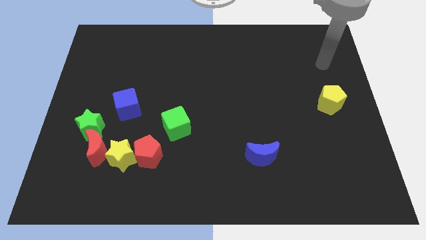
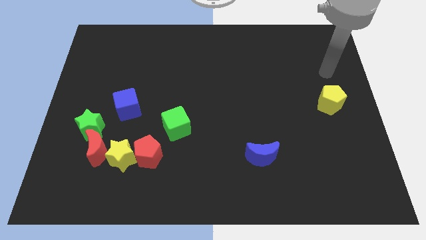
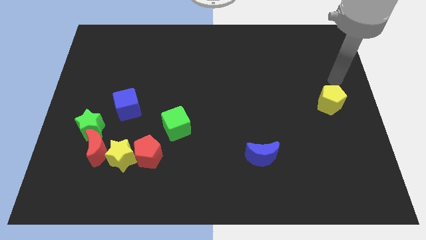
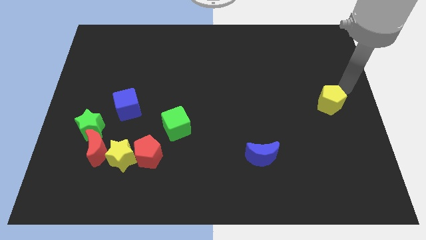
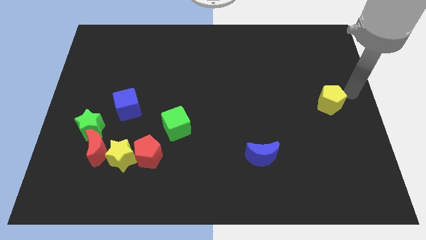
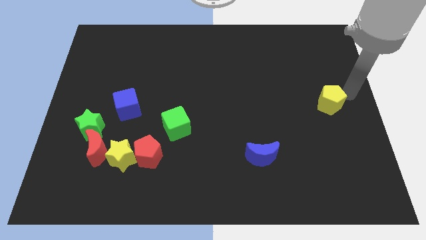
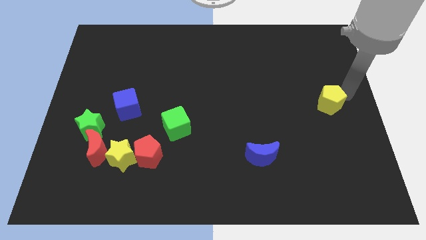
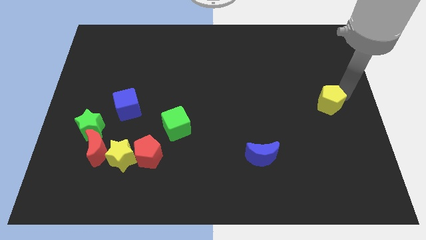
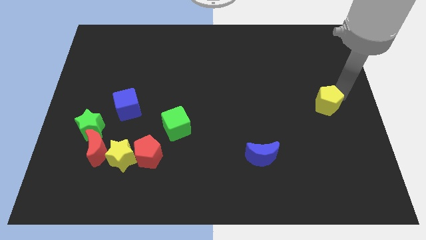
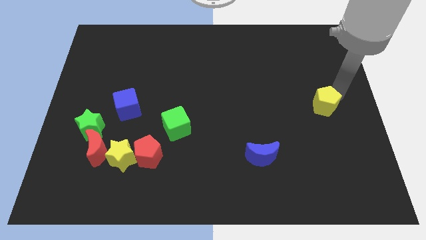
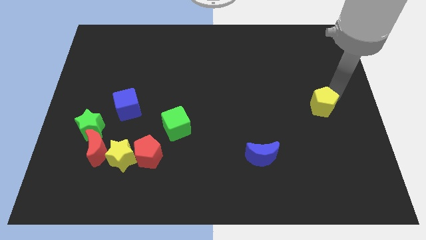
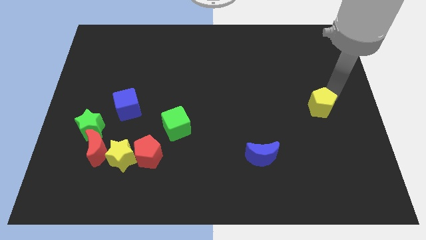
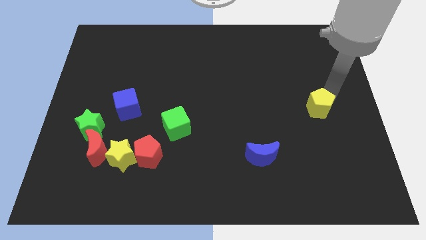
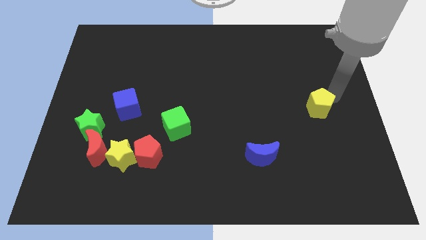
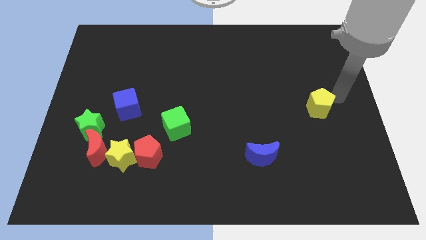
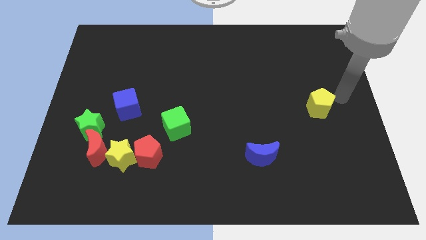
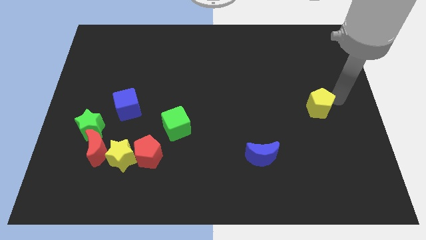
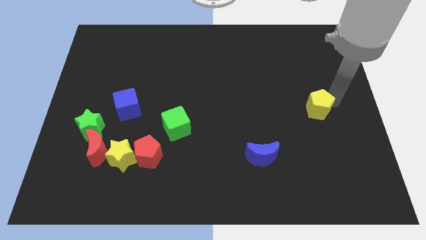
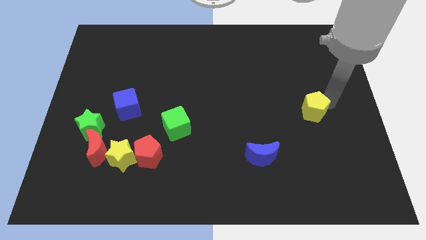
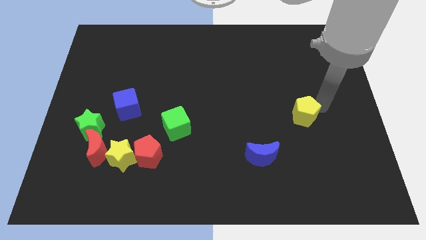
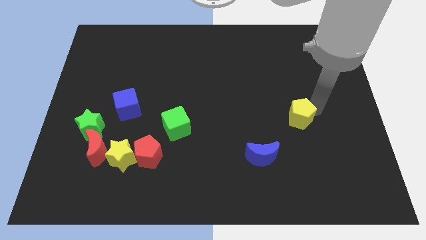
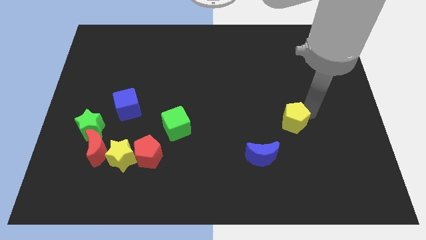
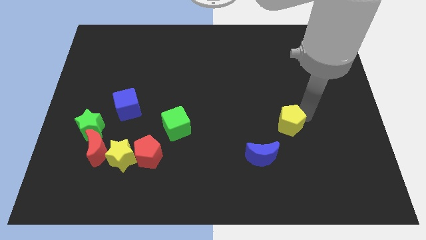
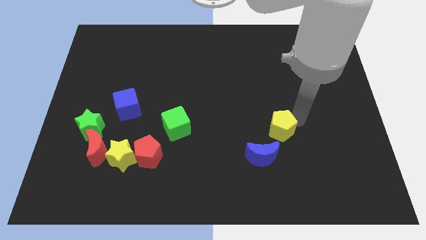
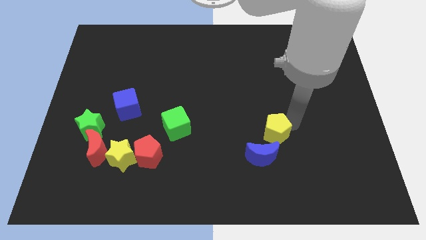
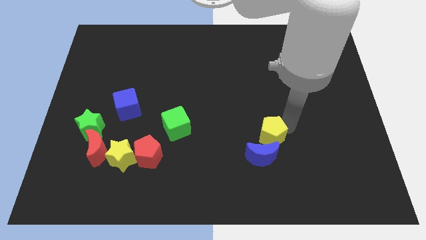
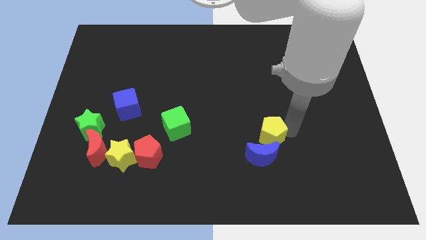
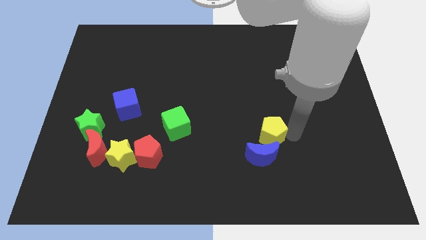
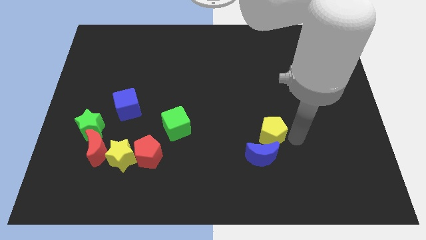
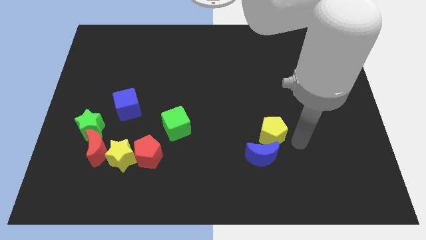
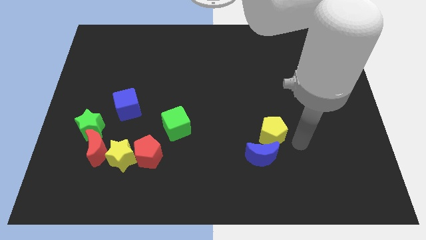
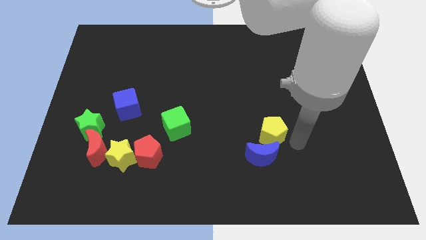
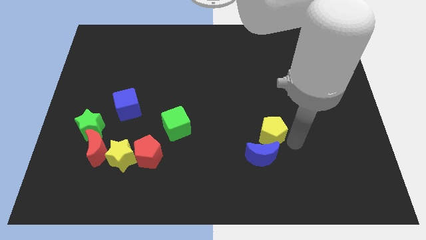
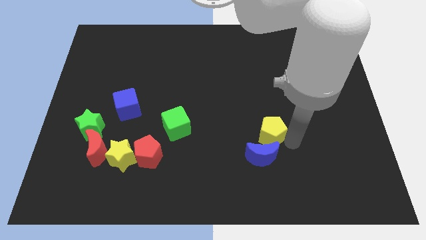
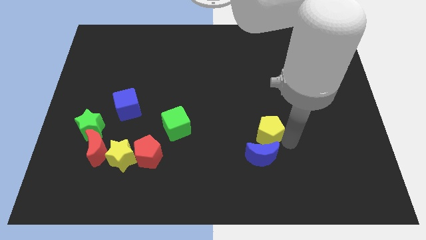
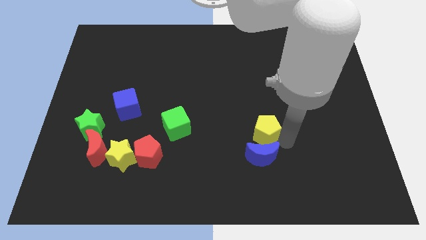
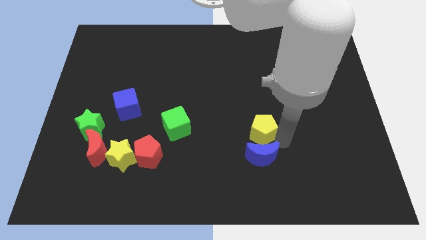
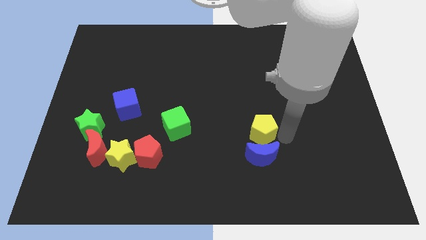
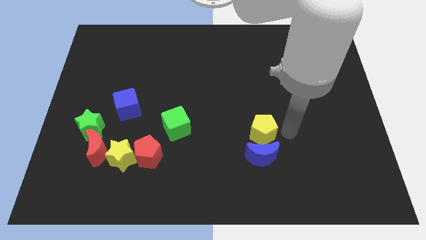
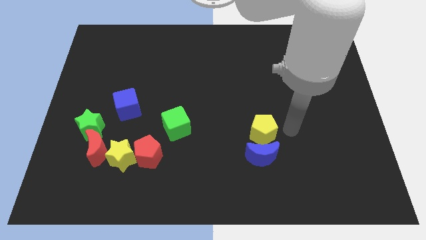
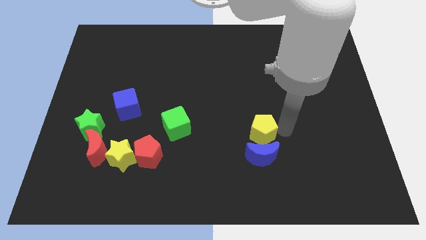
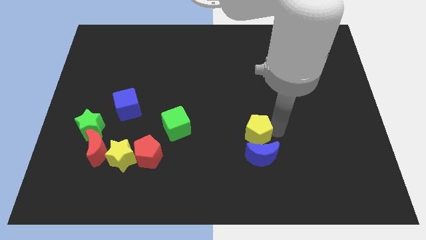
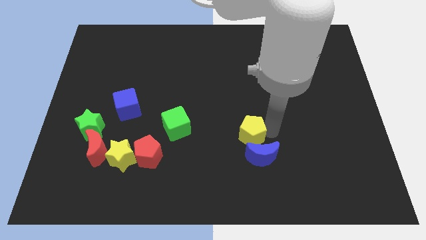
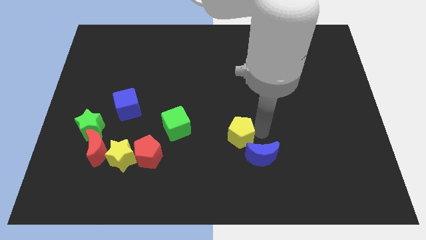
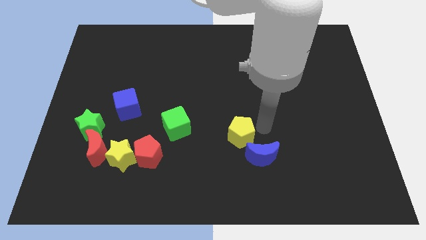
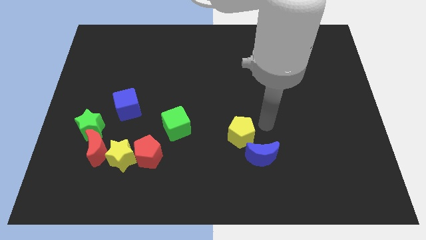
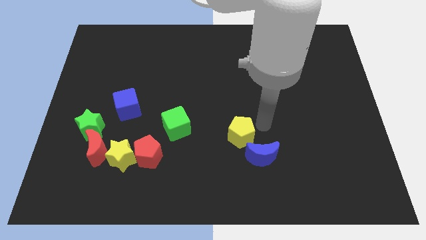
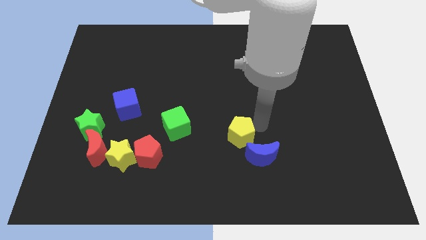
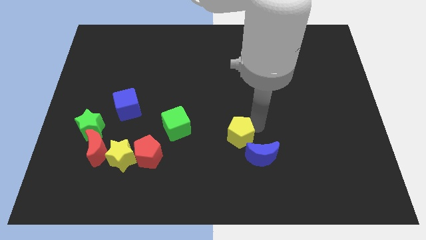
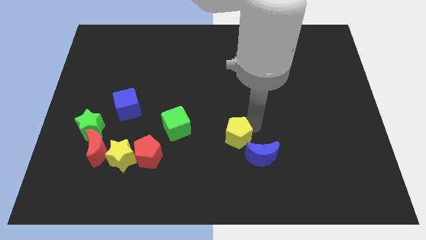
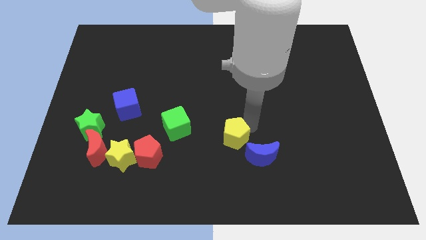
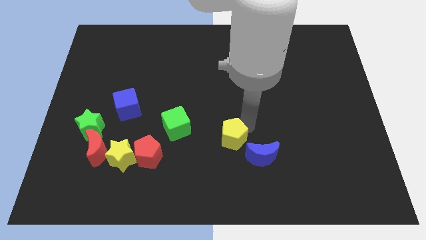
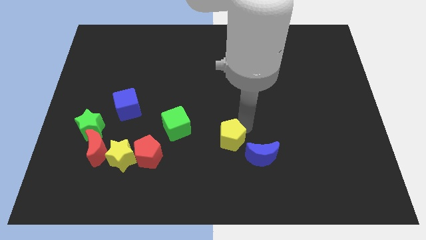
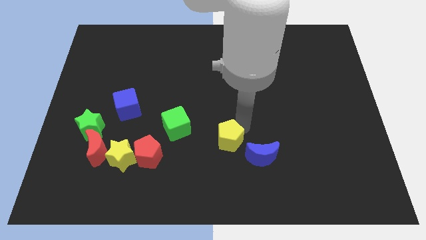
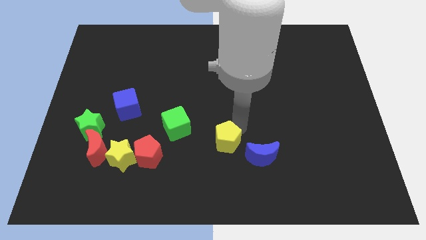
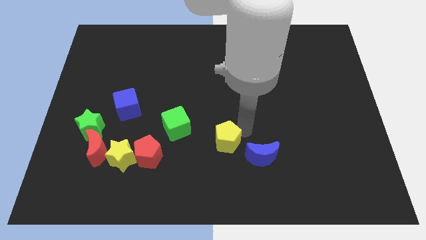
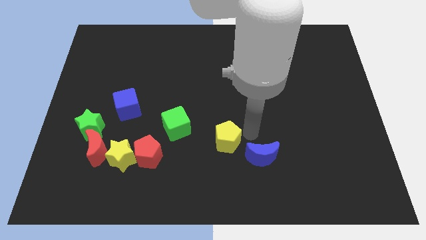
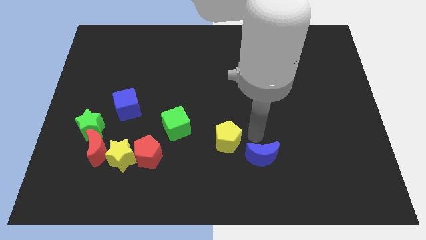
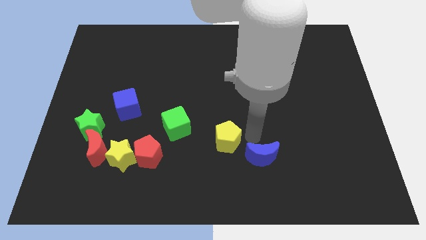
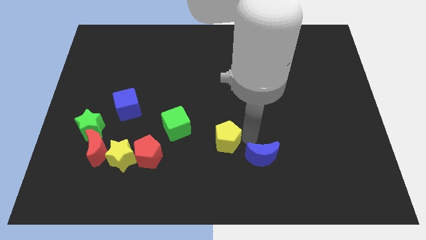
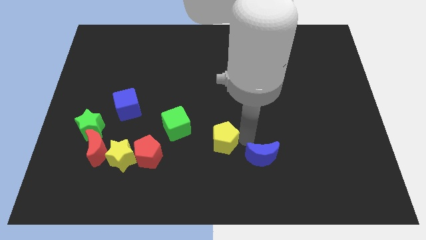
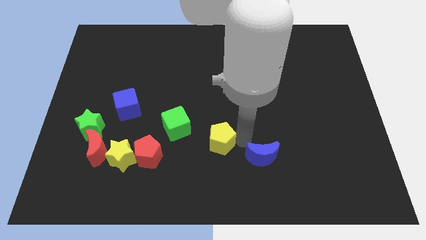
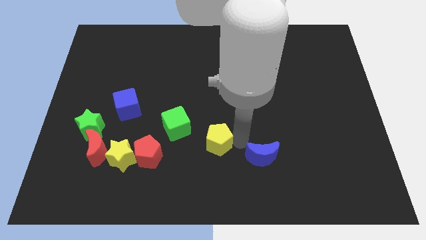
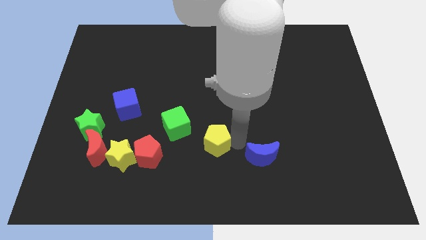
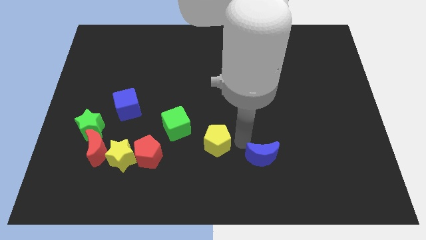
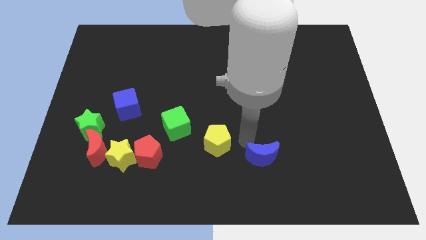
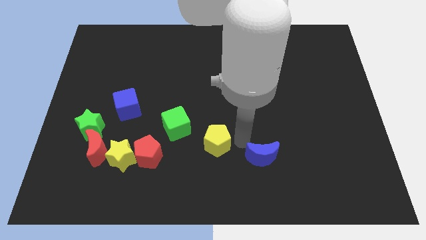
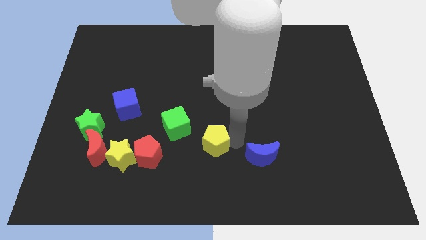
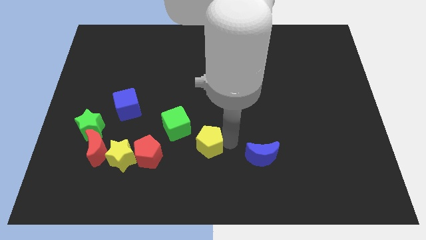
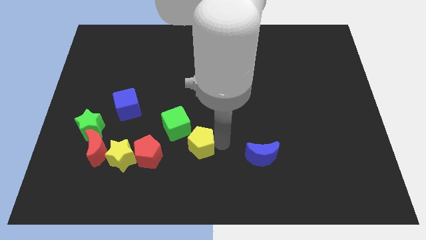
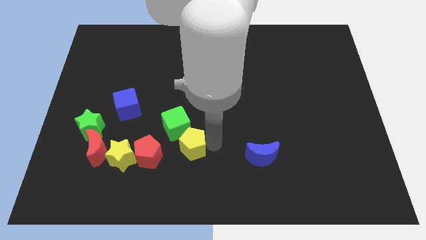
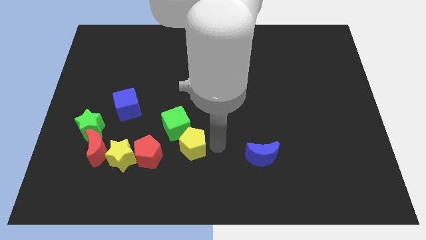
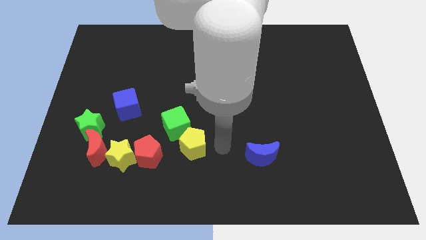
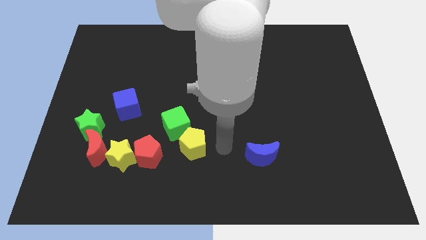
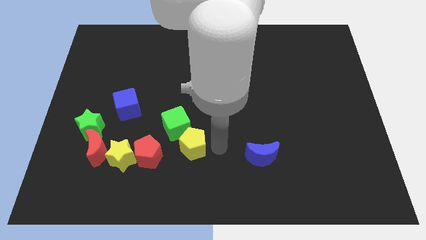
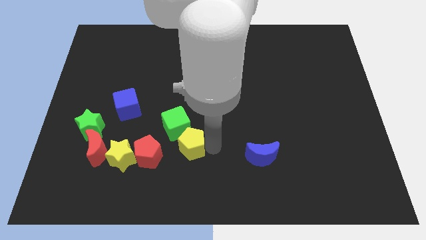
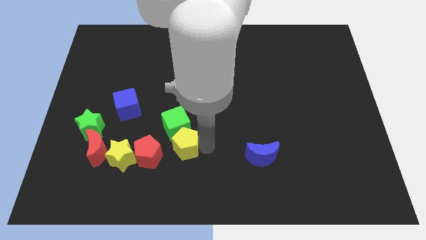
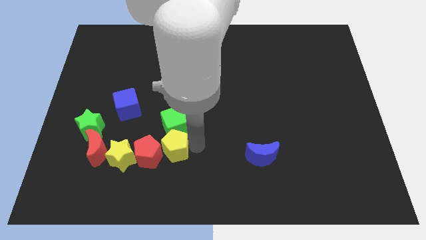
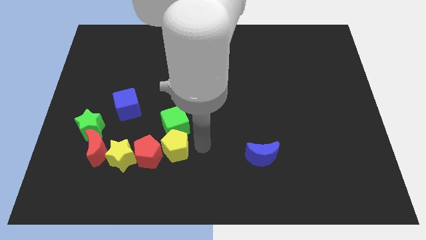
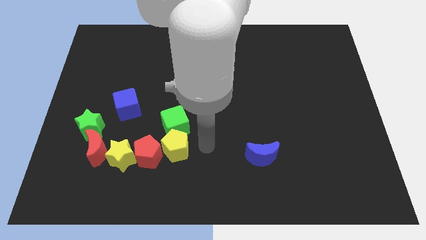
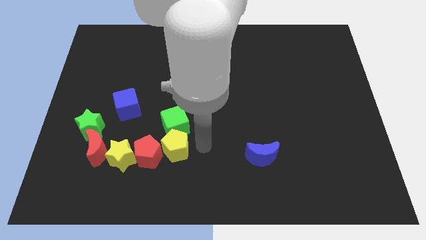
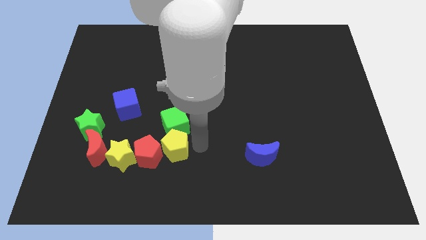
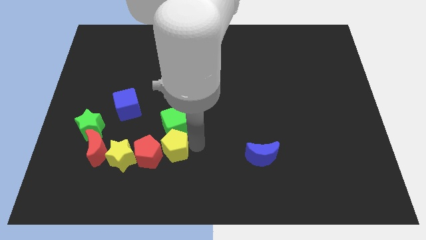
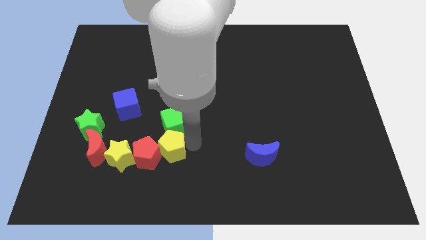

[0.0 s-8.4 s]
push the yellow pentagon right of the red moon
